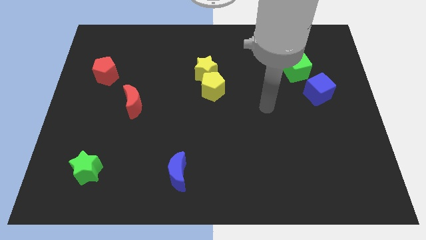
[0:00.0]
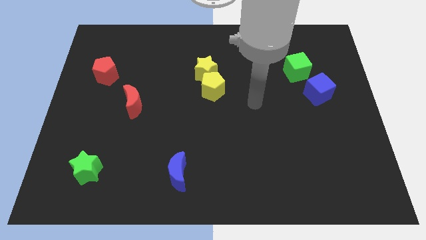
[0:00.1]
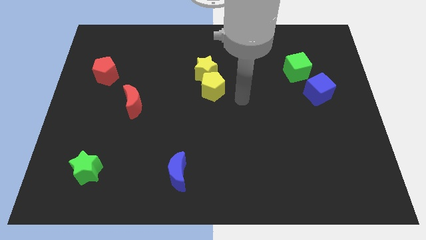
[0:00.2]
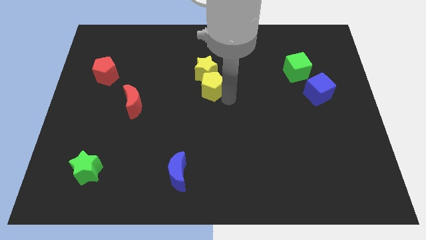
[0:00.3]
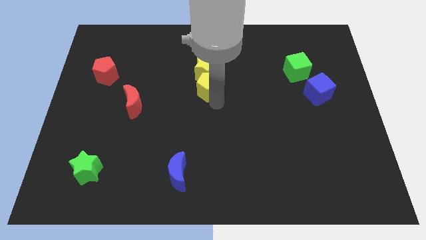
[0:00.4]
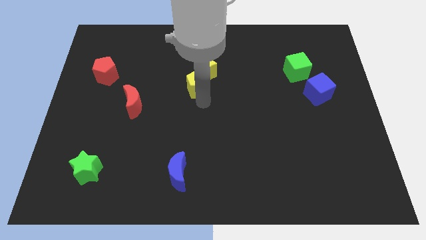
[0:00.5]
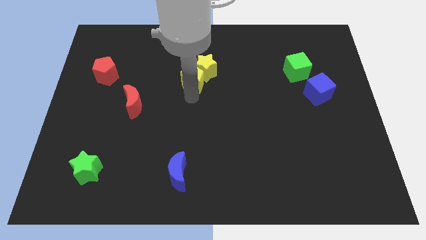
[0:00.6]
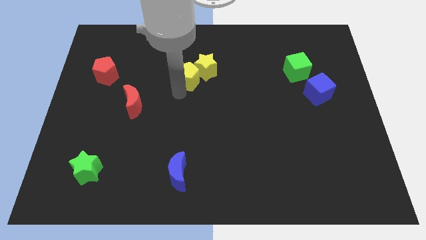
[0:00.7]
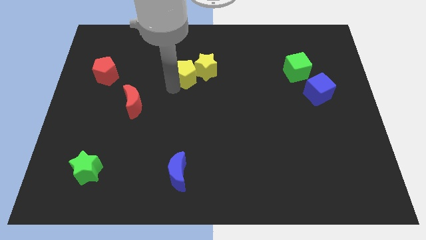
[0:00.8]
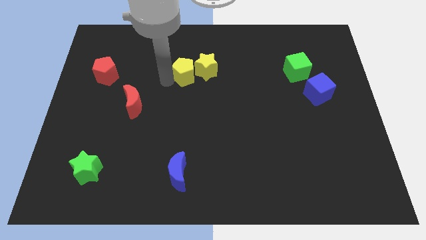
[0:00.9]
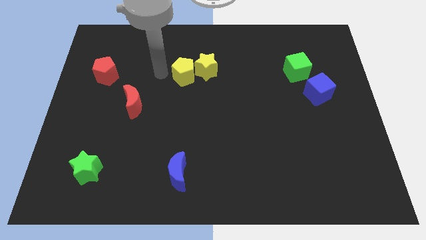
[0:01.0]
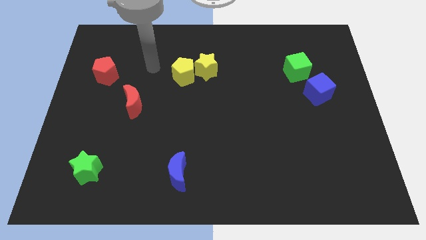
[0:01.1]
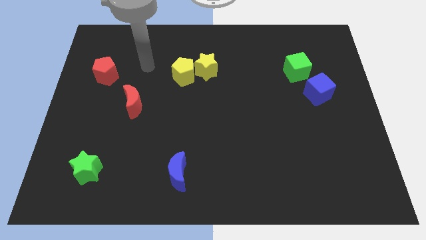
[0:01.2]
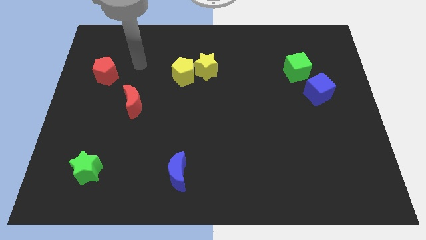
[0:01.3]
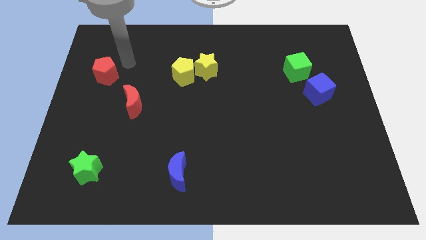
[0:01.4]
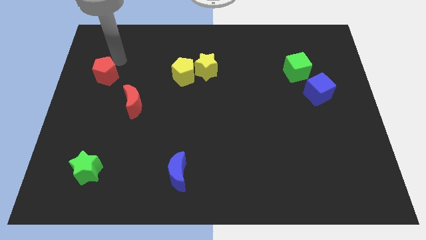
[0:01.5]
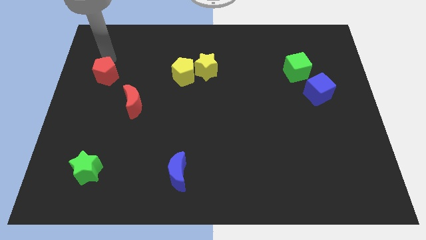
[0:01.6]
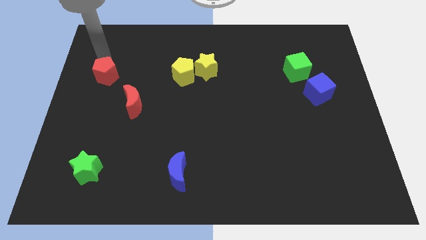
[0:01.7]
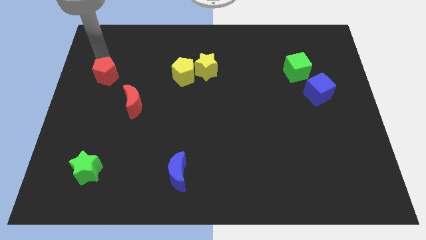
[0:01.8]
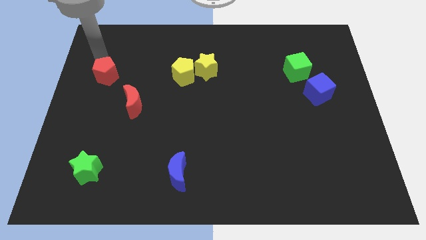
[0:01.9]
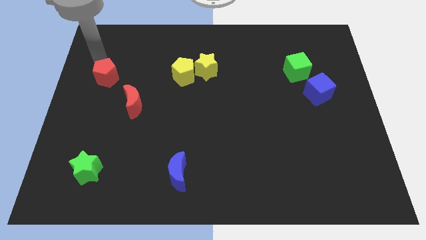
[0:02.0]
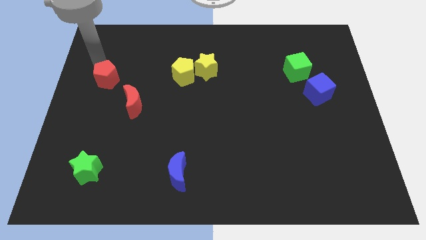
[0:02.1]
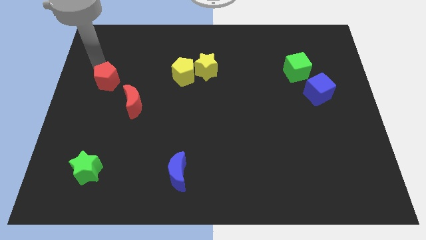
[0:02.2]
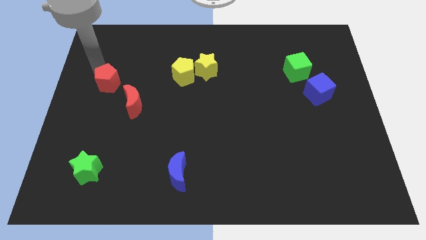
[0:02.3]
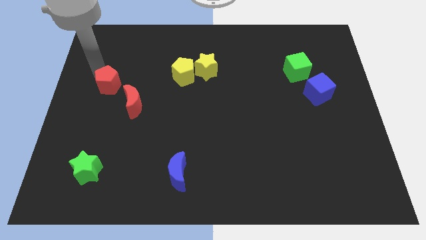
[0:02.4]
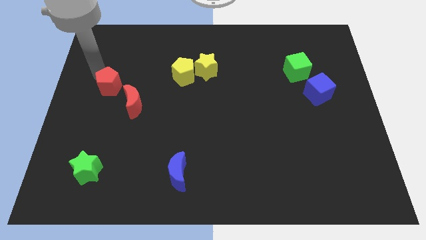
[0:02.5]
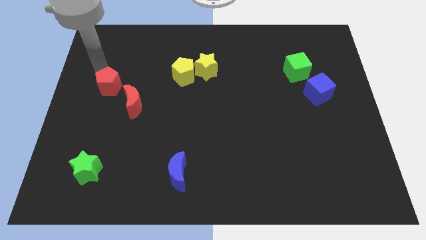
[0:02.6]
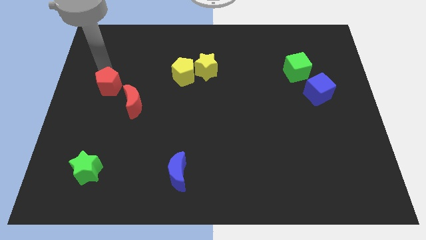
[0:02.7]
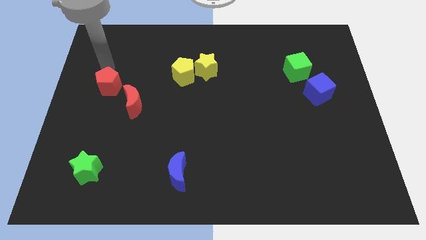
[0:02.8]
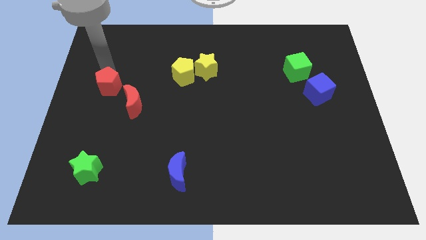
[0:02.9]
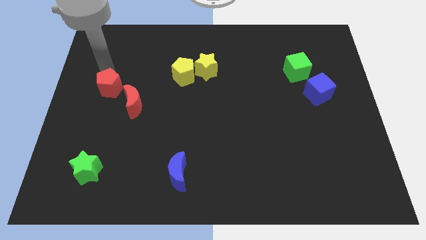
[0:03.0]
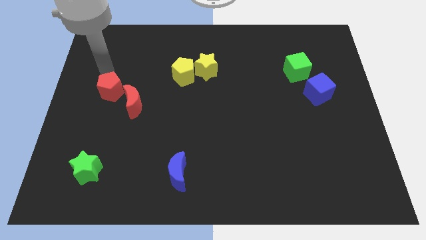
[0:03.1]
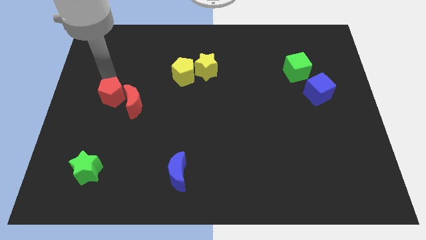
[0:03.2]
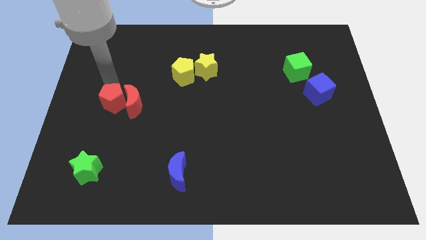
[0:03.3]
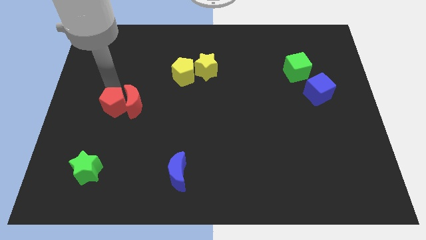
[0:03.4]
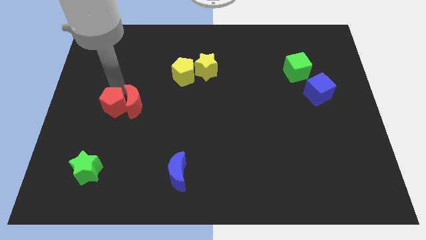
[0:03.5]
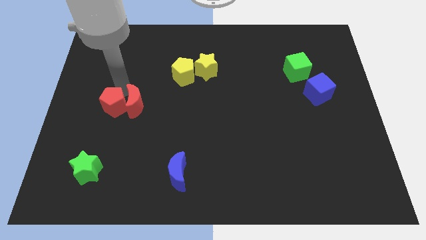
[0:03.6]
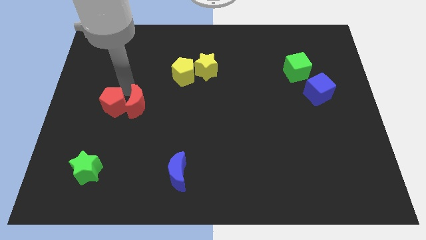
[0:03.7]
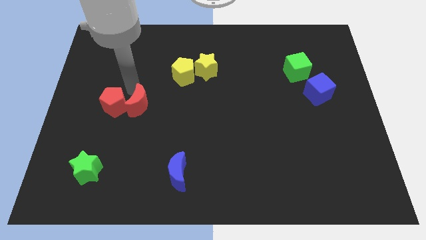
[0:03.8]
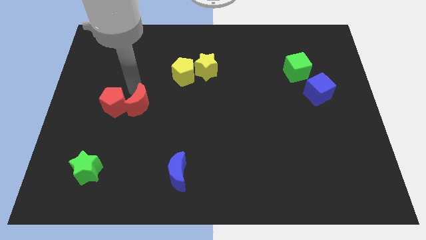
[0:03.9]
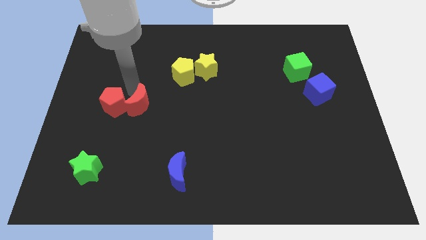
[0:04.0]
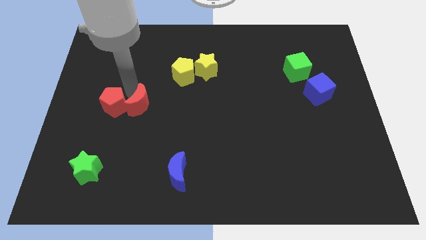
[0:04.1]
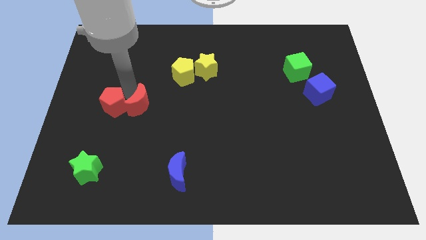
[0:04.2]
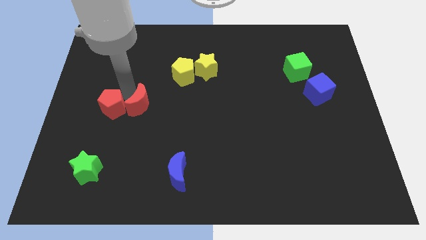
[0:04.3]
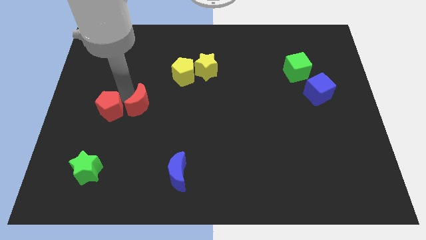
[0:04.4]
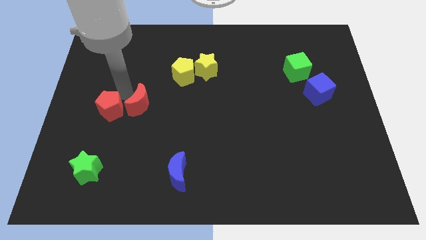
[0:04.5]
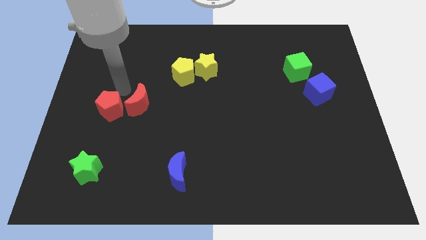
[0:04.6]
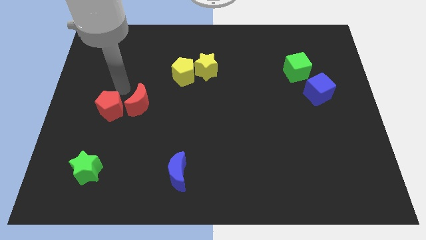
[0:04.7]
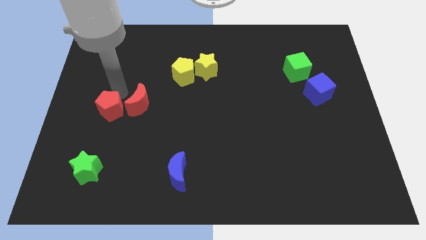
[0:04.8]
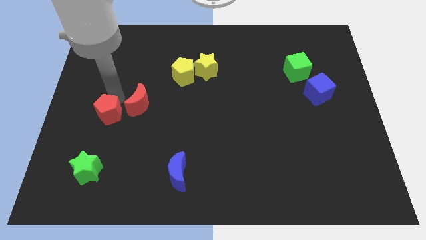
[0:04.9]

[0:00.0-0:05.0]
slide the red pentagon to the top side of the green star

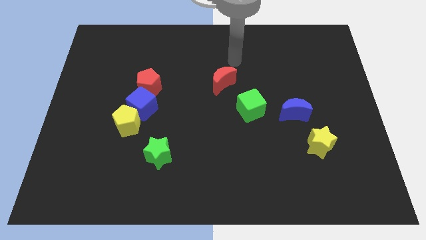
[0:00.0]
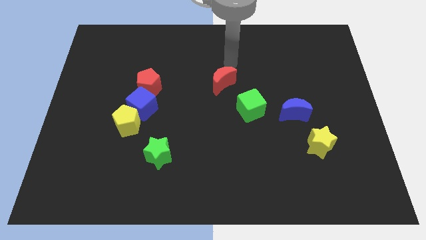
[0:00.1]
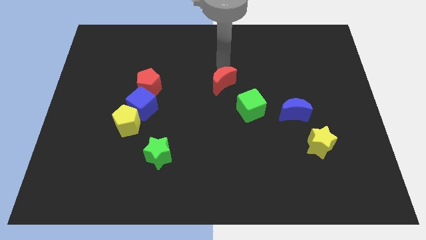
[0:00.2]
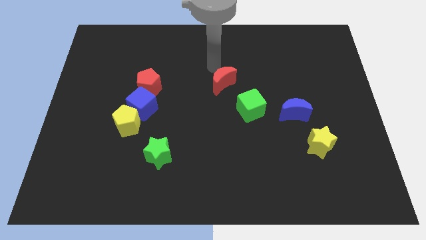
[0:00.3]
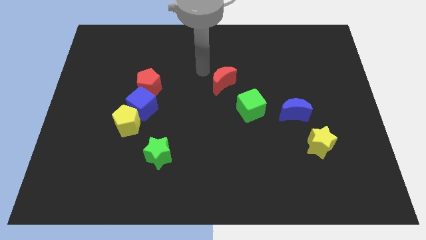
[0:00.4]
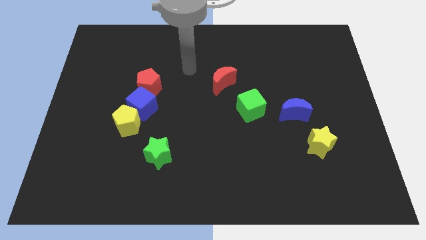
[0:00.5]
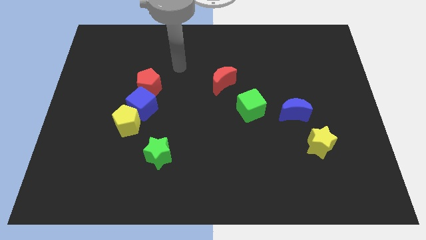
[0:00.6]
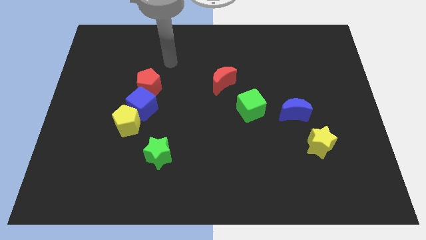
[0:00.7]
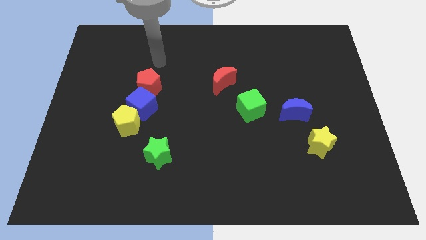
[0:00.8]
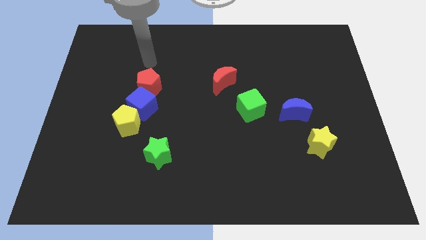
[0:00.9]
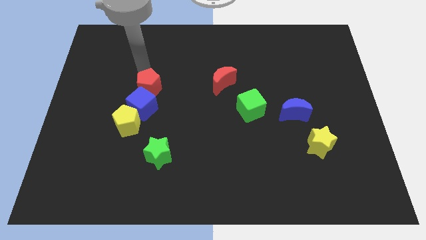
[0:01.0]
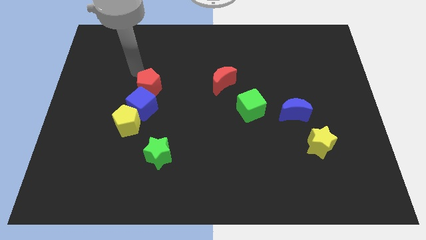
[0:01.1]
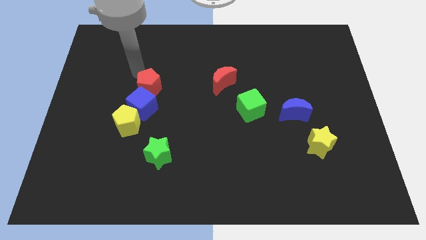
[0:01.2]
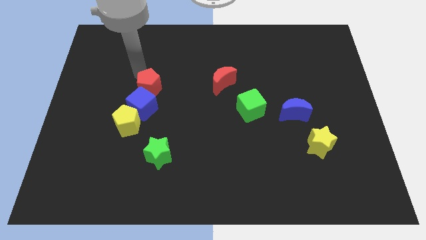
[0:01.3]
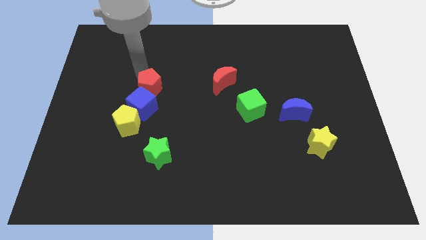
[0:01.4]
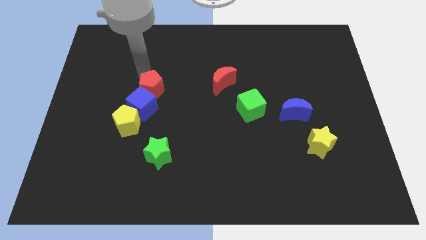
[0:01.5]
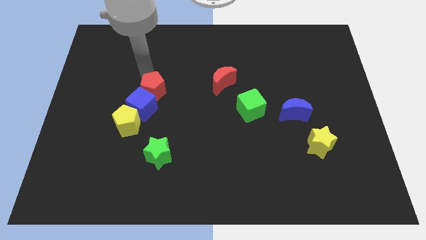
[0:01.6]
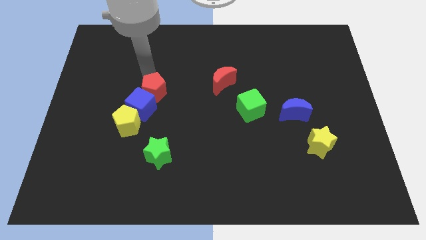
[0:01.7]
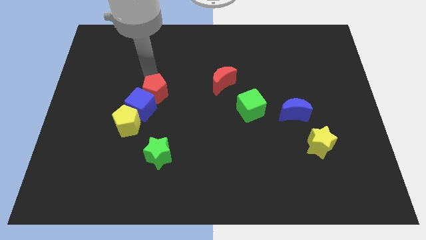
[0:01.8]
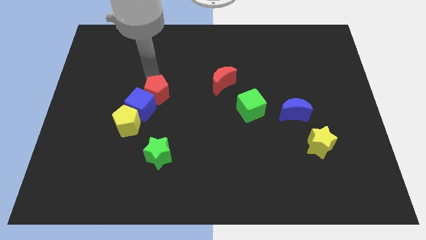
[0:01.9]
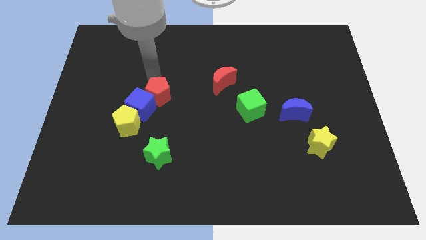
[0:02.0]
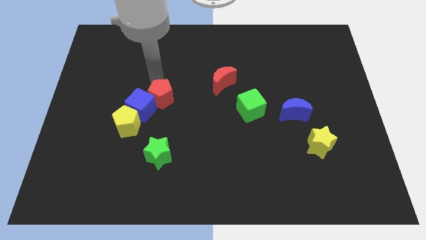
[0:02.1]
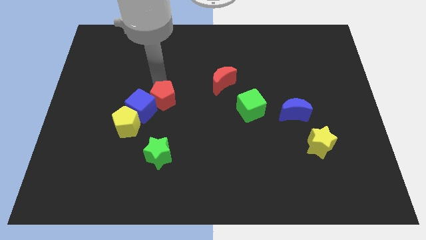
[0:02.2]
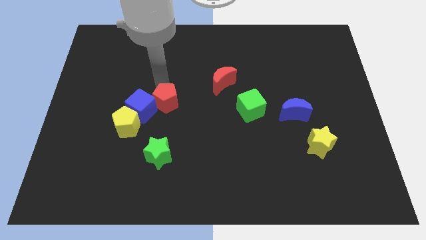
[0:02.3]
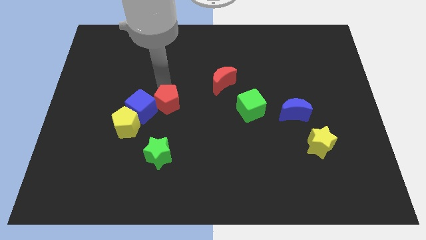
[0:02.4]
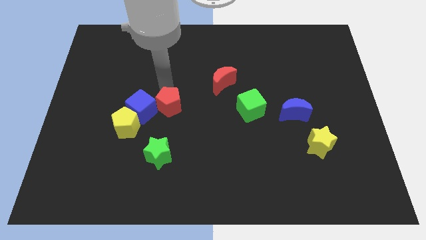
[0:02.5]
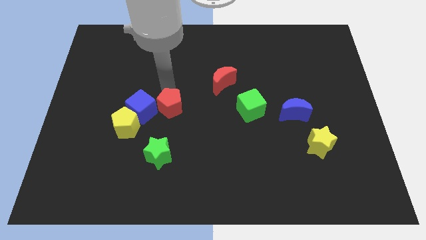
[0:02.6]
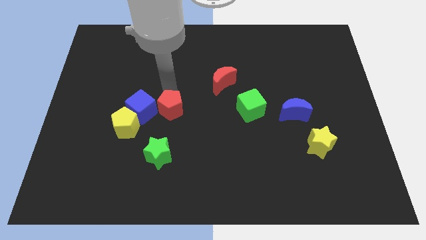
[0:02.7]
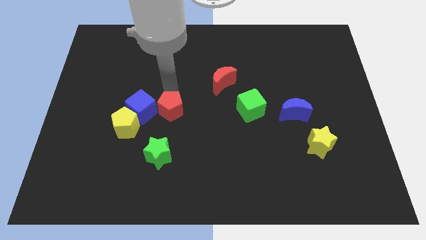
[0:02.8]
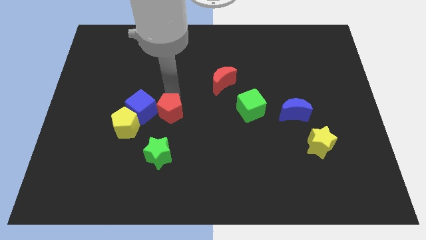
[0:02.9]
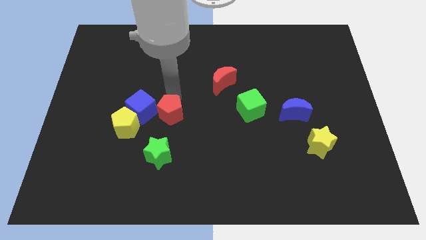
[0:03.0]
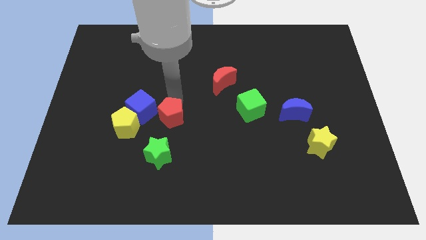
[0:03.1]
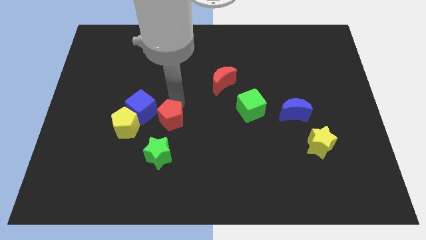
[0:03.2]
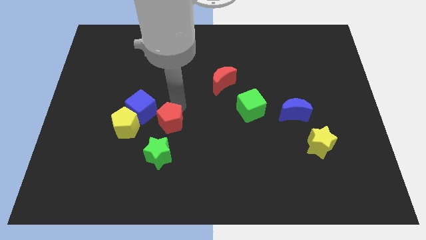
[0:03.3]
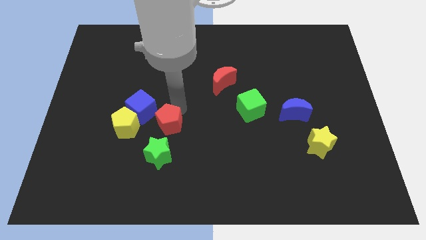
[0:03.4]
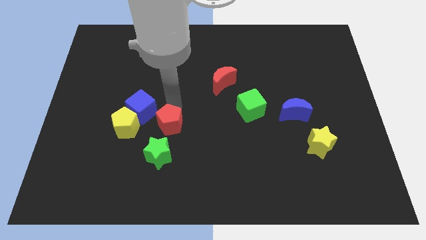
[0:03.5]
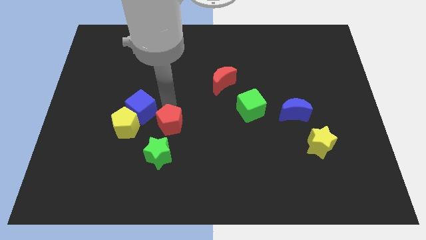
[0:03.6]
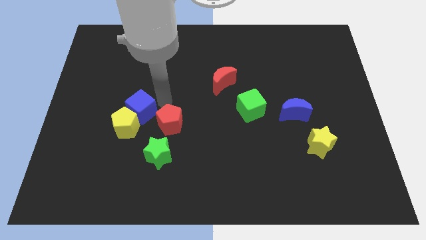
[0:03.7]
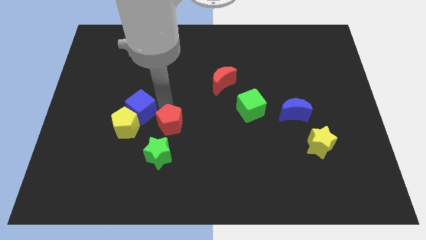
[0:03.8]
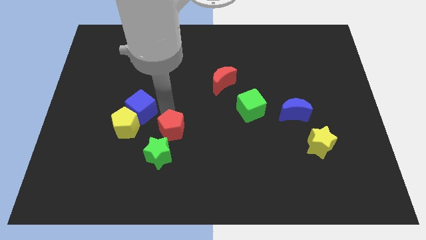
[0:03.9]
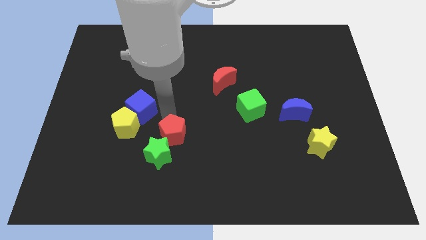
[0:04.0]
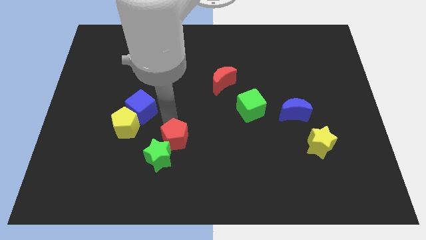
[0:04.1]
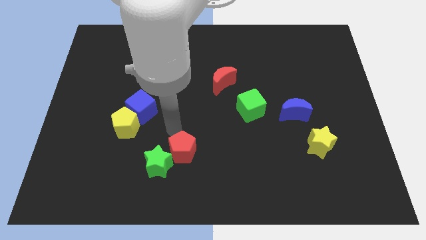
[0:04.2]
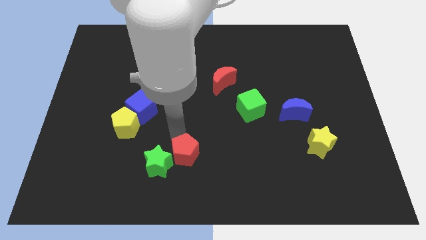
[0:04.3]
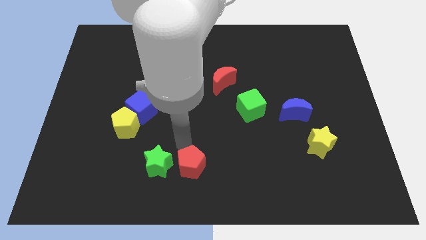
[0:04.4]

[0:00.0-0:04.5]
slide the red pentagon to the bottom right side of the green star
